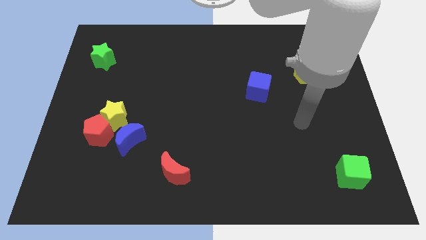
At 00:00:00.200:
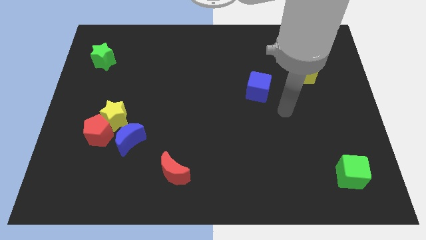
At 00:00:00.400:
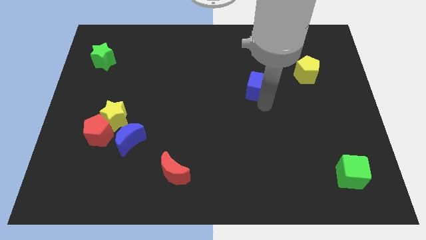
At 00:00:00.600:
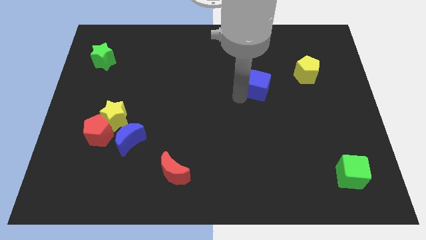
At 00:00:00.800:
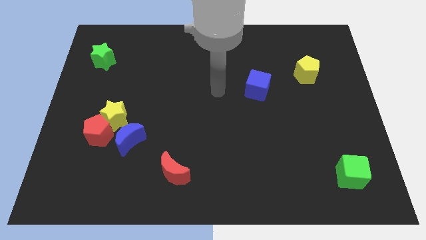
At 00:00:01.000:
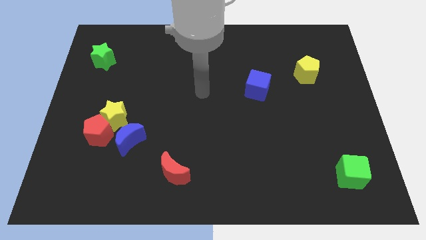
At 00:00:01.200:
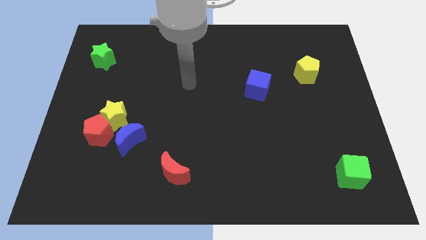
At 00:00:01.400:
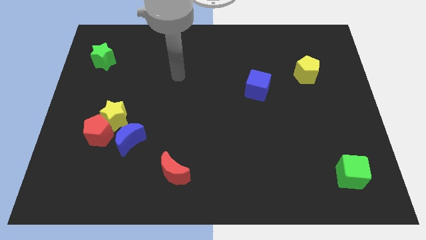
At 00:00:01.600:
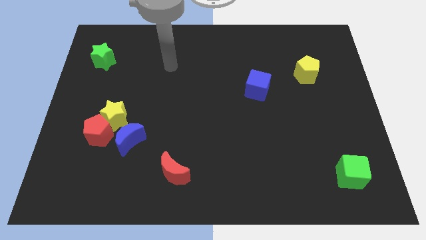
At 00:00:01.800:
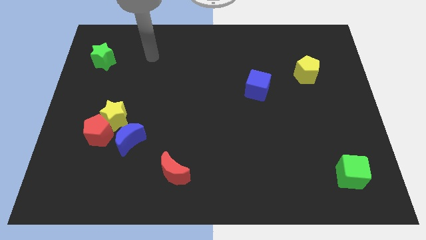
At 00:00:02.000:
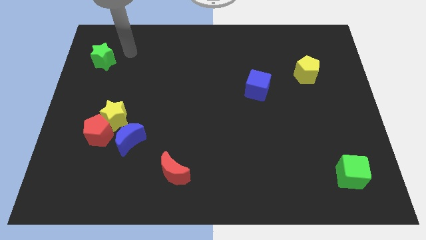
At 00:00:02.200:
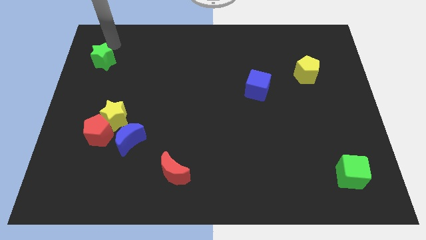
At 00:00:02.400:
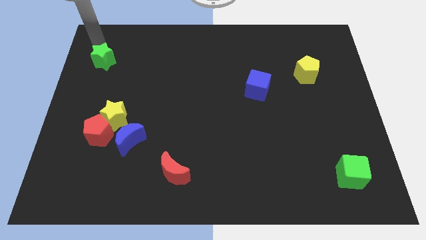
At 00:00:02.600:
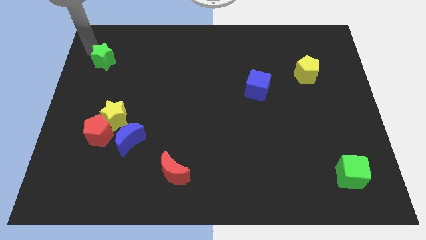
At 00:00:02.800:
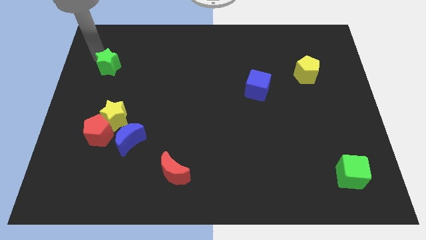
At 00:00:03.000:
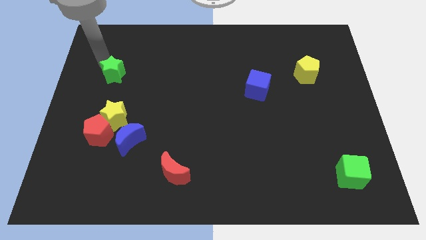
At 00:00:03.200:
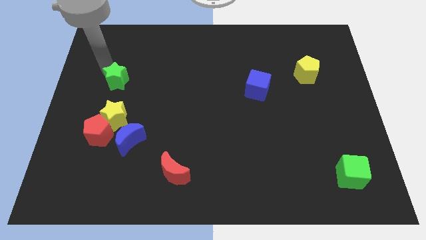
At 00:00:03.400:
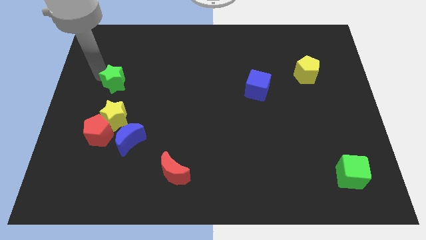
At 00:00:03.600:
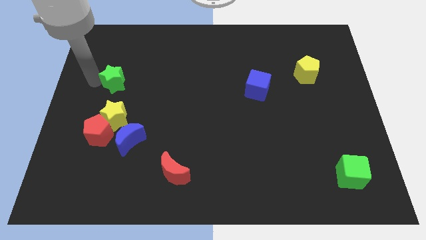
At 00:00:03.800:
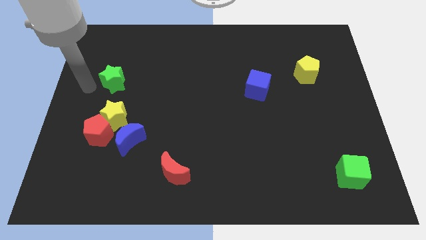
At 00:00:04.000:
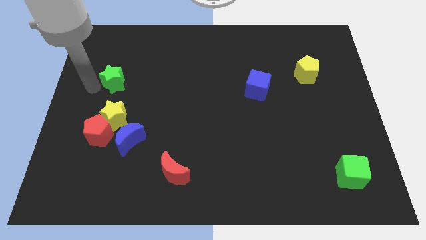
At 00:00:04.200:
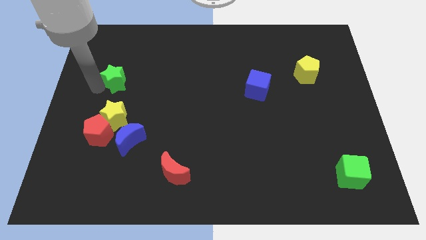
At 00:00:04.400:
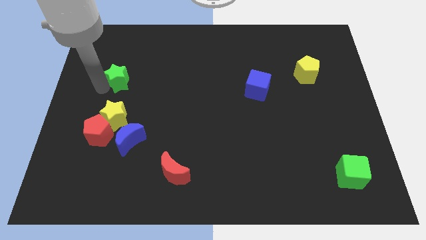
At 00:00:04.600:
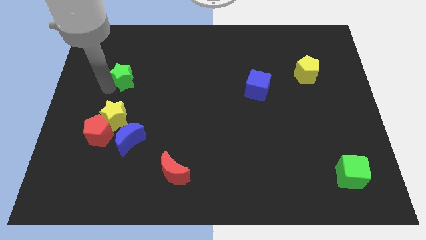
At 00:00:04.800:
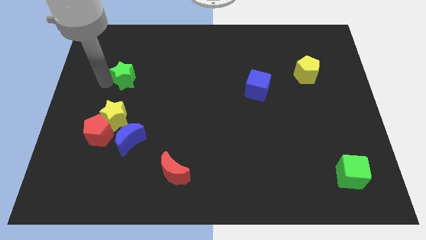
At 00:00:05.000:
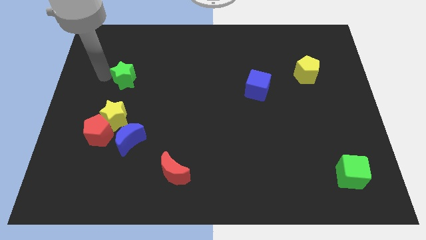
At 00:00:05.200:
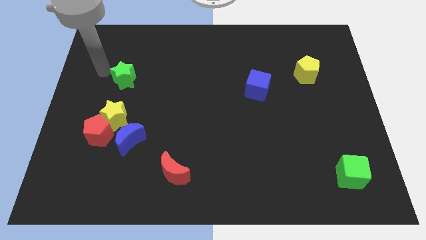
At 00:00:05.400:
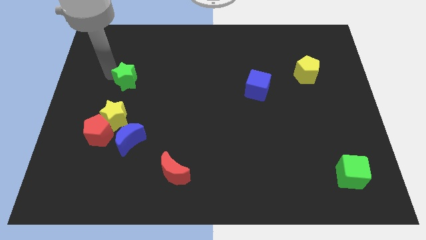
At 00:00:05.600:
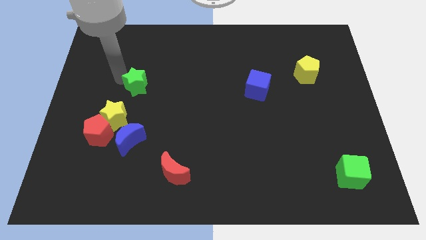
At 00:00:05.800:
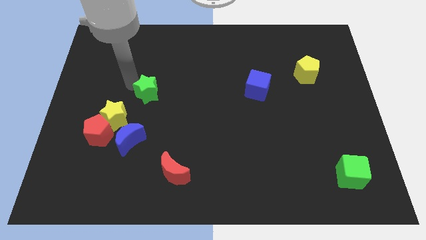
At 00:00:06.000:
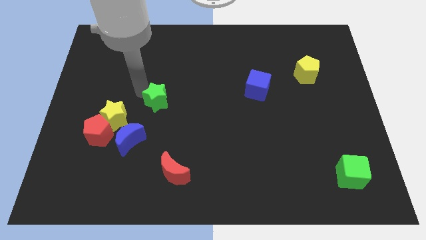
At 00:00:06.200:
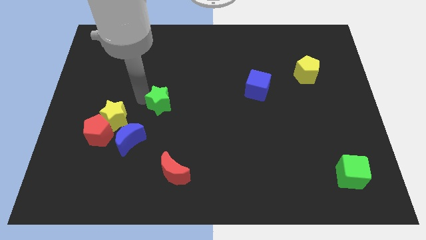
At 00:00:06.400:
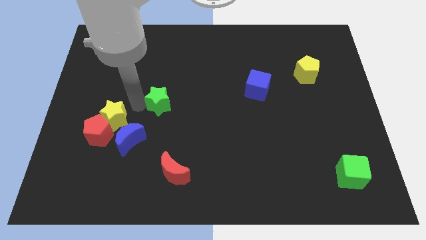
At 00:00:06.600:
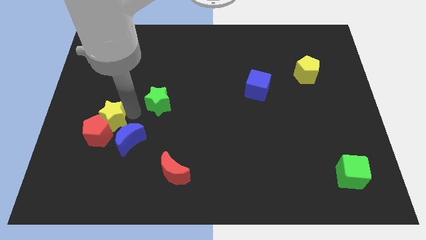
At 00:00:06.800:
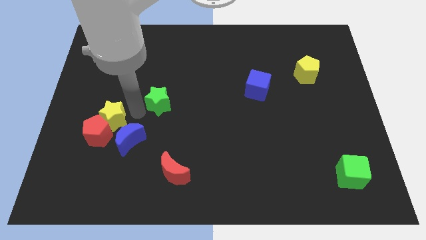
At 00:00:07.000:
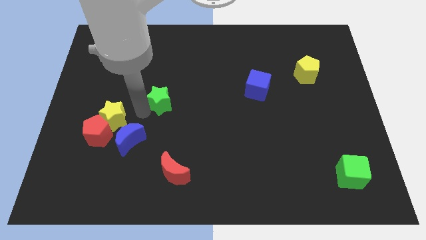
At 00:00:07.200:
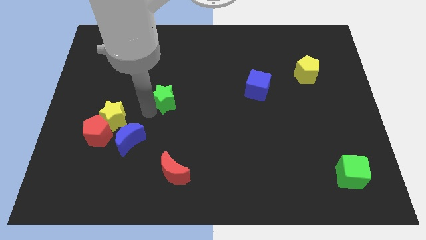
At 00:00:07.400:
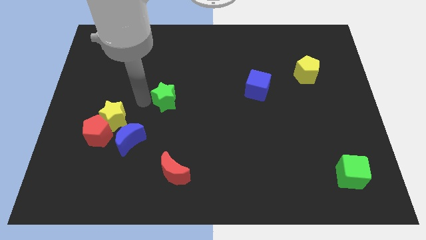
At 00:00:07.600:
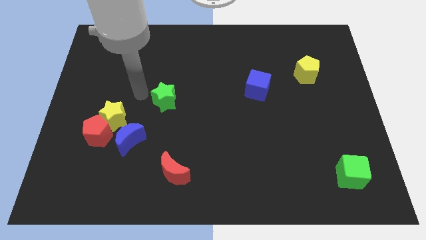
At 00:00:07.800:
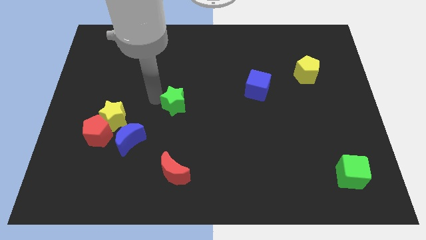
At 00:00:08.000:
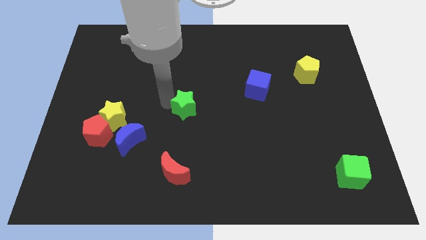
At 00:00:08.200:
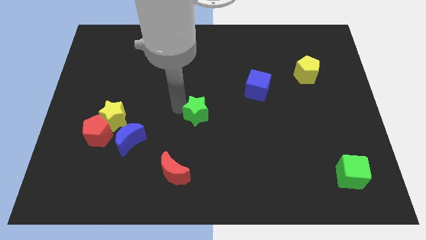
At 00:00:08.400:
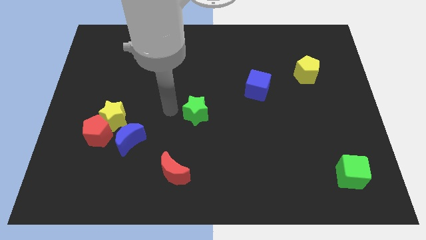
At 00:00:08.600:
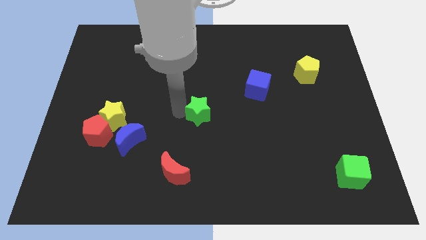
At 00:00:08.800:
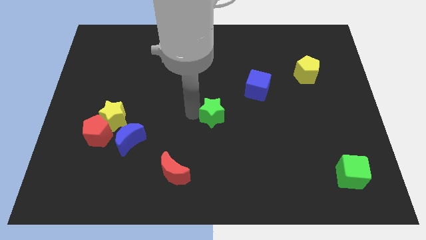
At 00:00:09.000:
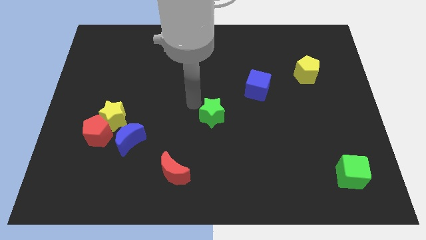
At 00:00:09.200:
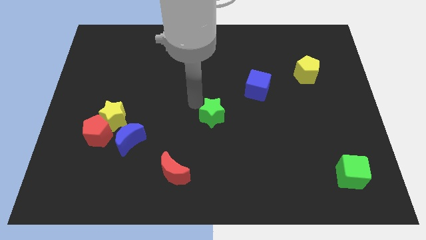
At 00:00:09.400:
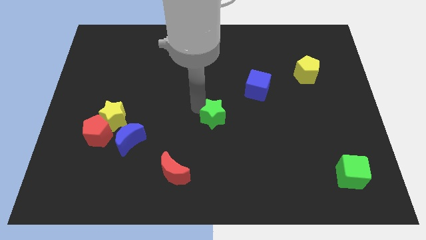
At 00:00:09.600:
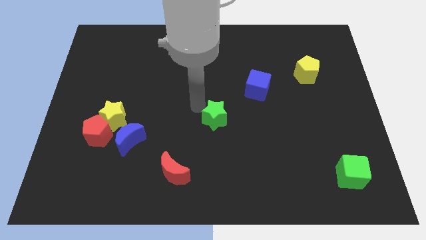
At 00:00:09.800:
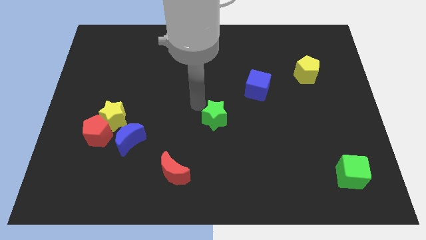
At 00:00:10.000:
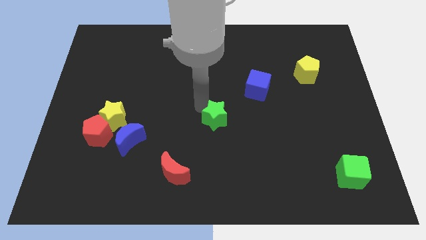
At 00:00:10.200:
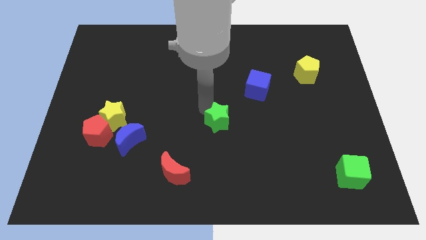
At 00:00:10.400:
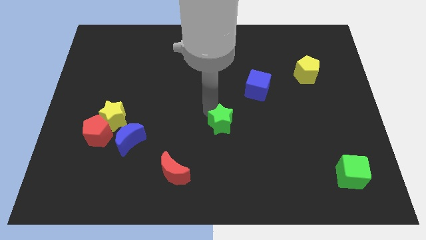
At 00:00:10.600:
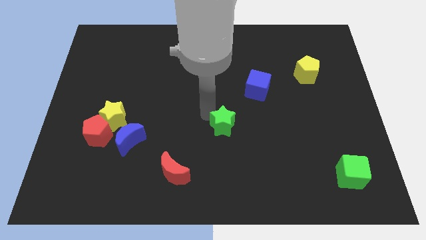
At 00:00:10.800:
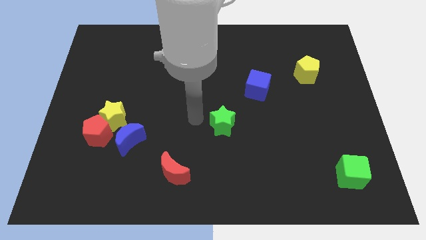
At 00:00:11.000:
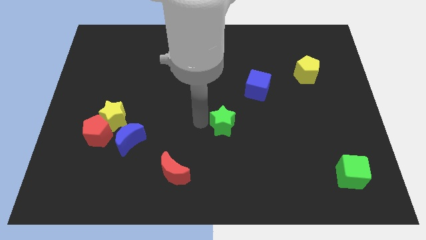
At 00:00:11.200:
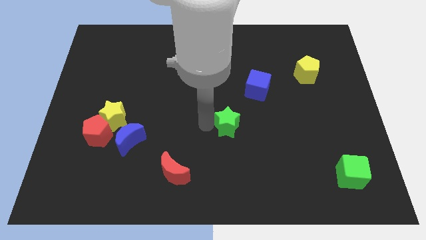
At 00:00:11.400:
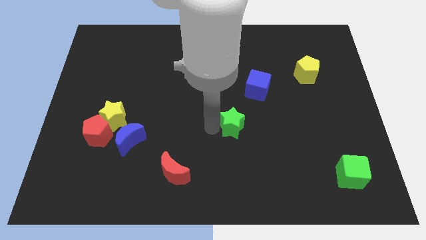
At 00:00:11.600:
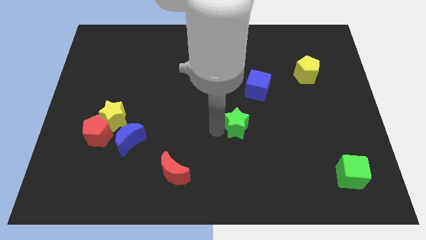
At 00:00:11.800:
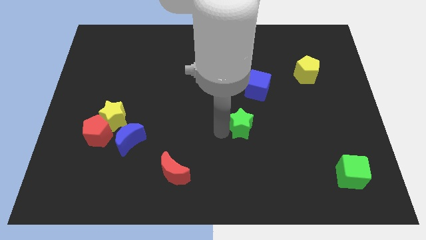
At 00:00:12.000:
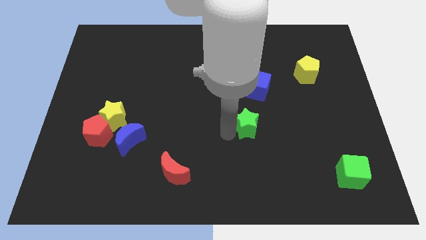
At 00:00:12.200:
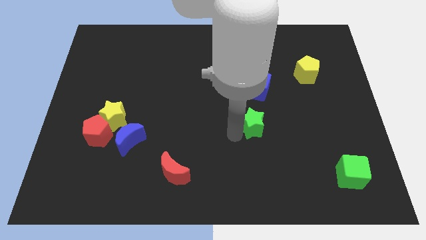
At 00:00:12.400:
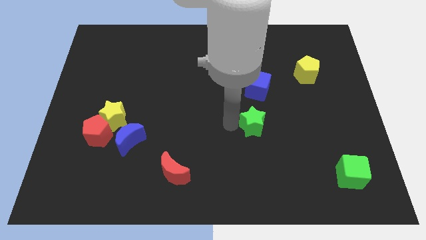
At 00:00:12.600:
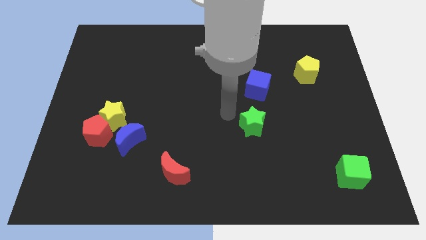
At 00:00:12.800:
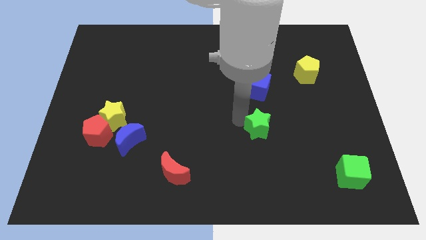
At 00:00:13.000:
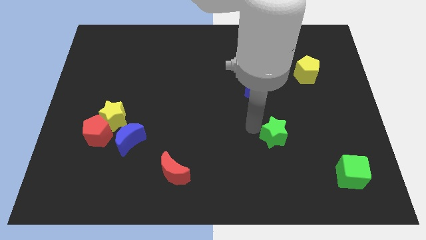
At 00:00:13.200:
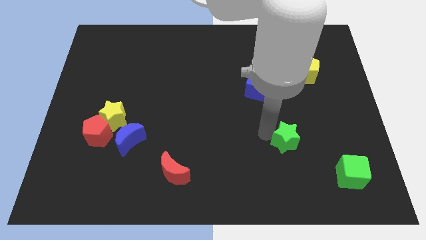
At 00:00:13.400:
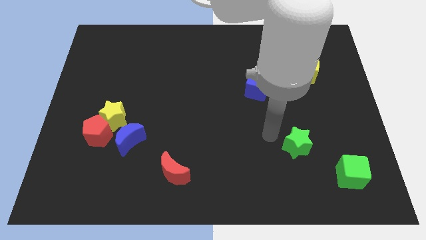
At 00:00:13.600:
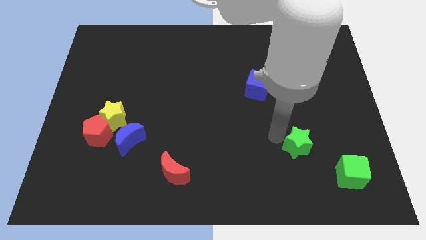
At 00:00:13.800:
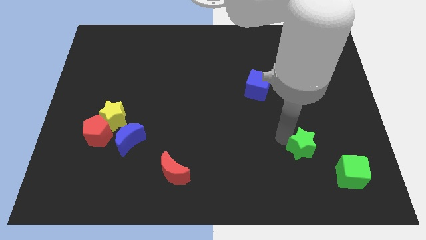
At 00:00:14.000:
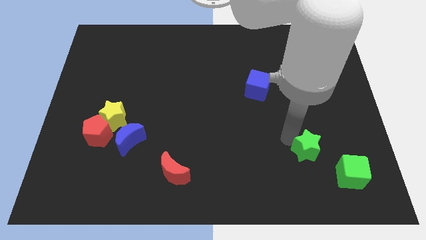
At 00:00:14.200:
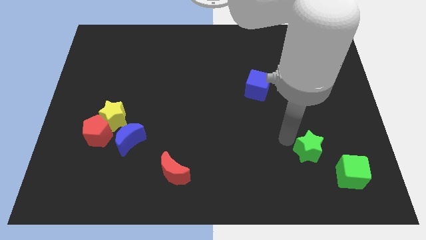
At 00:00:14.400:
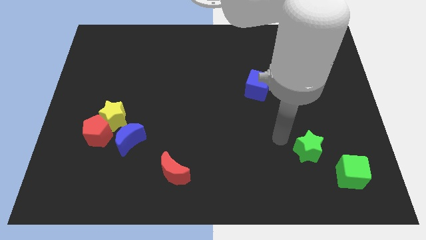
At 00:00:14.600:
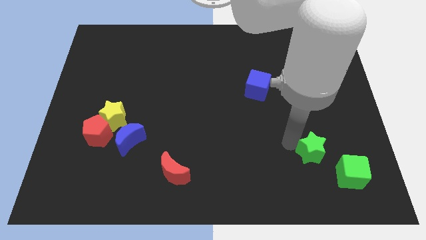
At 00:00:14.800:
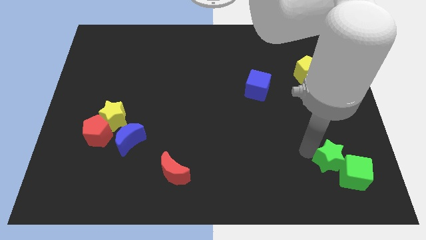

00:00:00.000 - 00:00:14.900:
move the green star to the green cube
